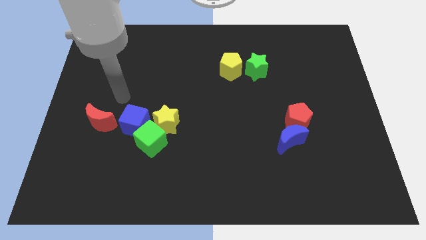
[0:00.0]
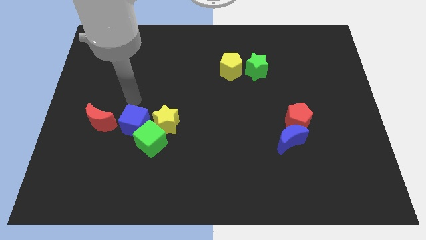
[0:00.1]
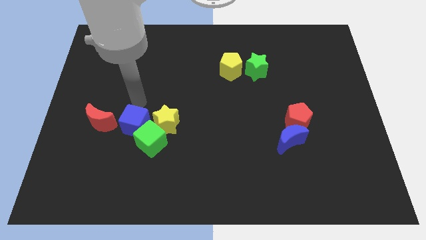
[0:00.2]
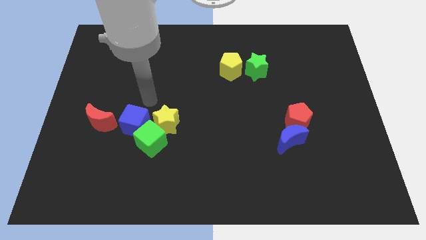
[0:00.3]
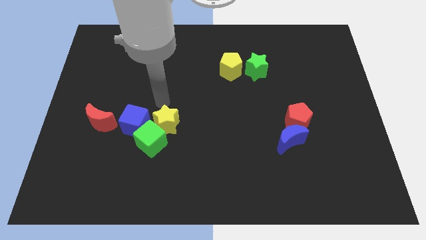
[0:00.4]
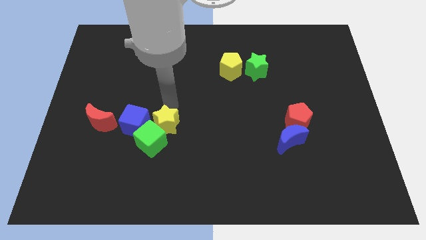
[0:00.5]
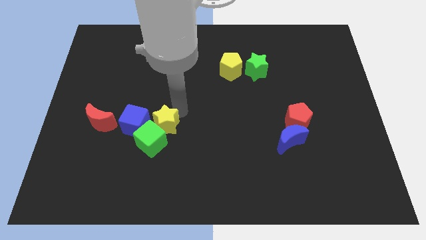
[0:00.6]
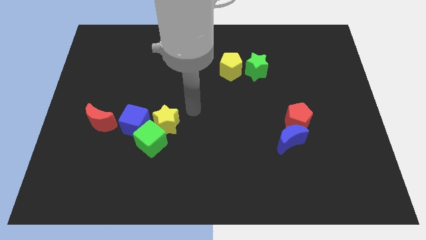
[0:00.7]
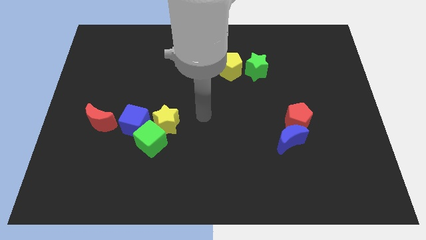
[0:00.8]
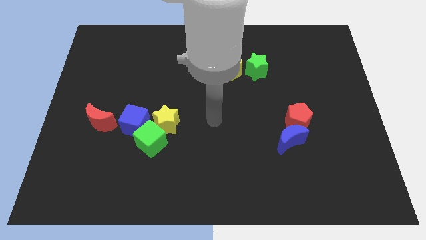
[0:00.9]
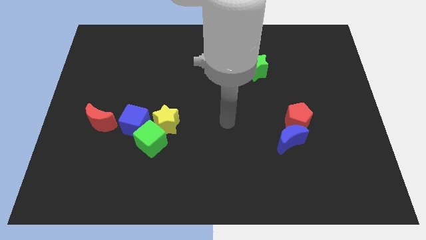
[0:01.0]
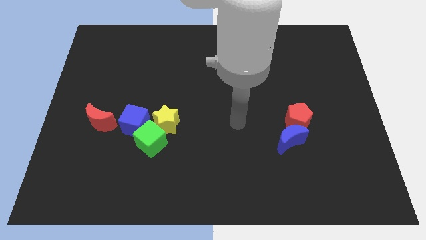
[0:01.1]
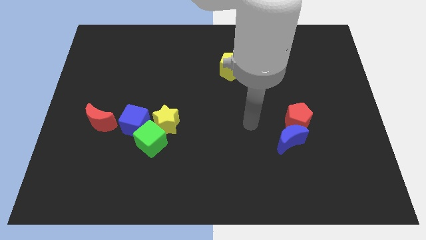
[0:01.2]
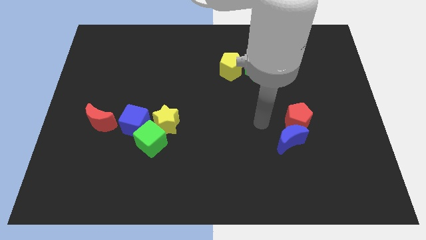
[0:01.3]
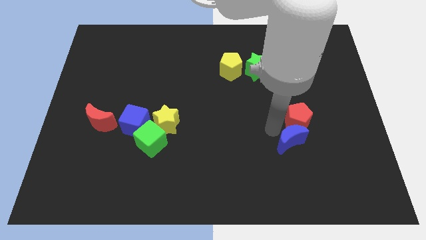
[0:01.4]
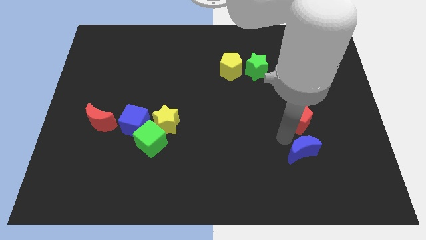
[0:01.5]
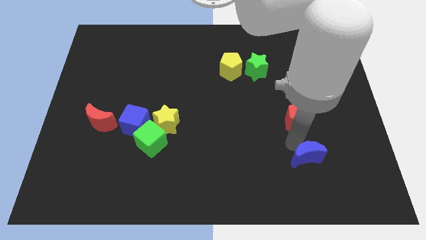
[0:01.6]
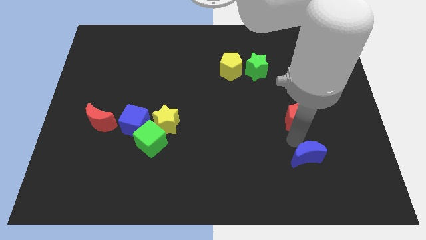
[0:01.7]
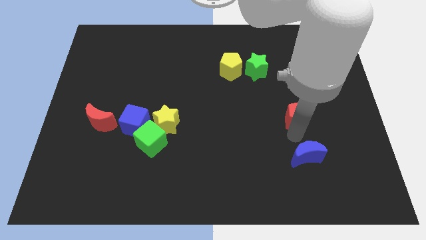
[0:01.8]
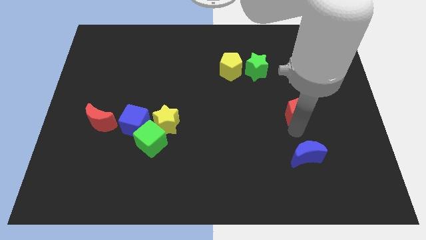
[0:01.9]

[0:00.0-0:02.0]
move the red pentagon away from the blue moon

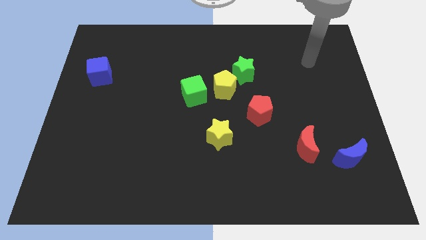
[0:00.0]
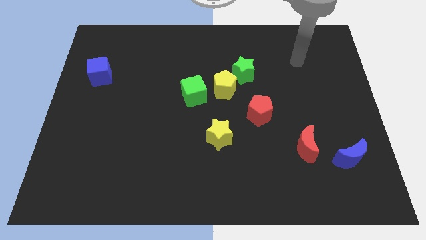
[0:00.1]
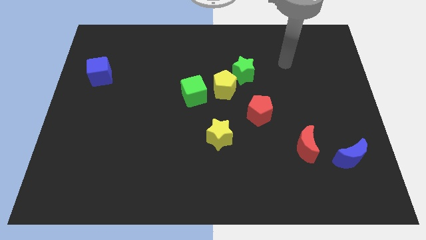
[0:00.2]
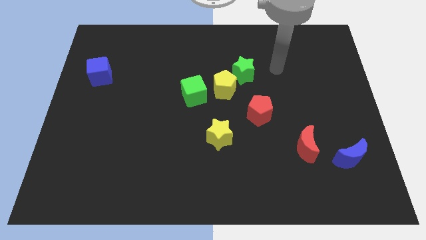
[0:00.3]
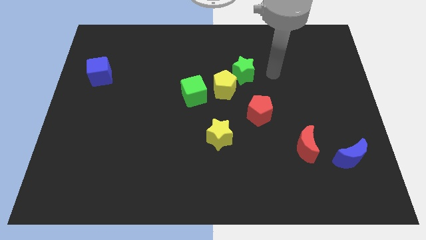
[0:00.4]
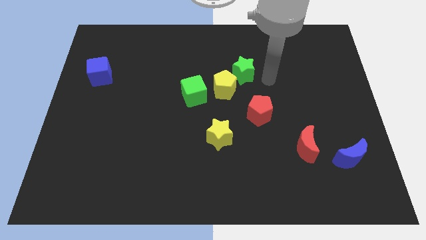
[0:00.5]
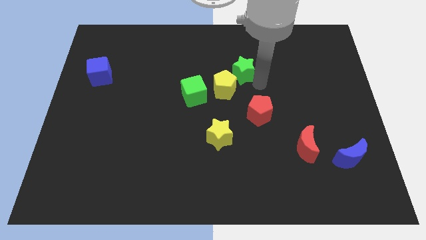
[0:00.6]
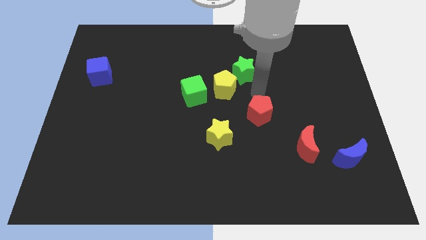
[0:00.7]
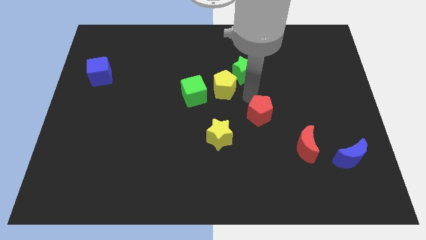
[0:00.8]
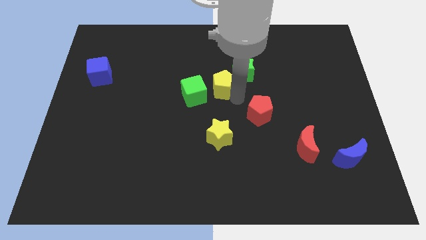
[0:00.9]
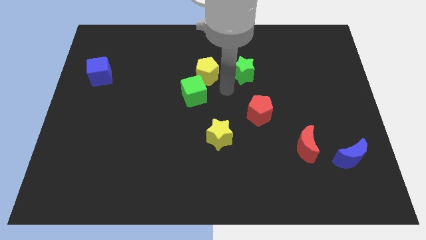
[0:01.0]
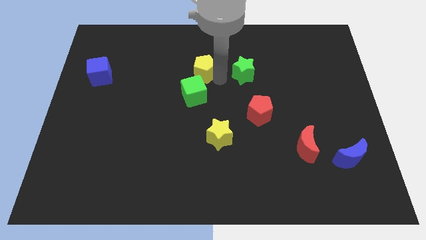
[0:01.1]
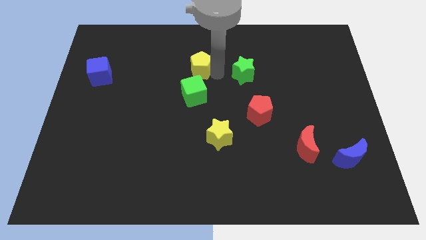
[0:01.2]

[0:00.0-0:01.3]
pull the green star apart from the yellow pentagon

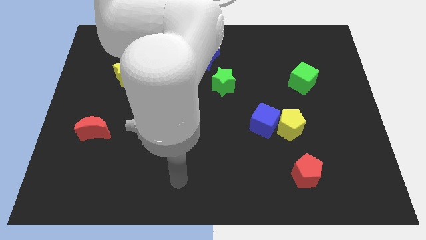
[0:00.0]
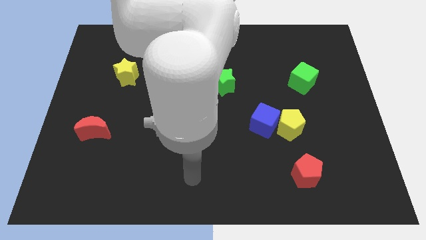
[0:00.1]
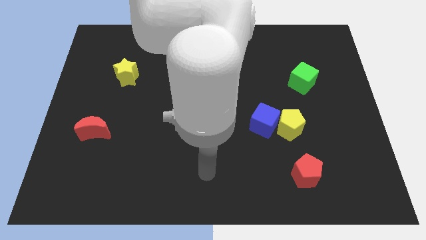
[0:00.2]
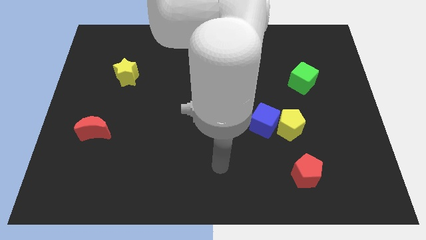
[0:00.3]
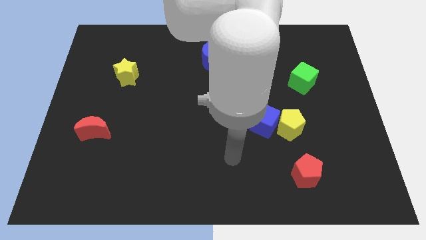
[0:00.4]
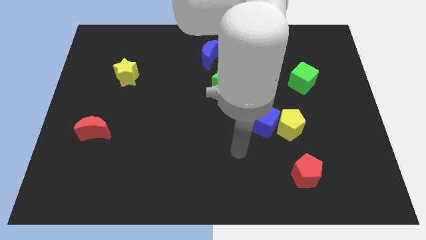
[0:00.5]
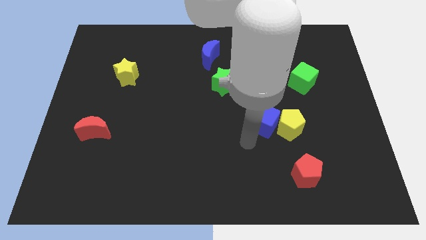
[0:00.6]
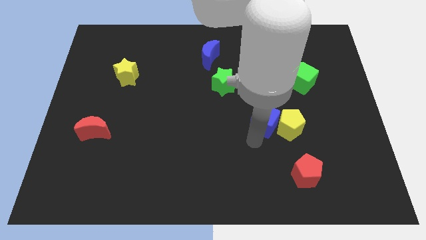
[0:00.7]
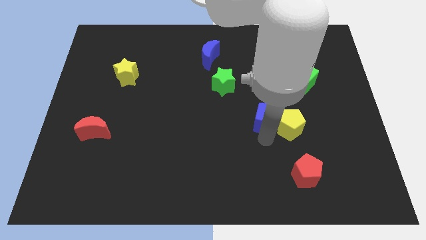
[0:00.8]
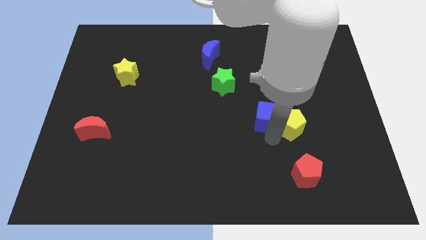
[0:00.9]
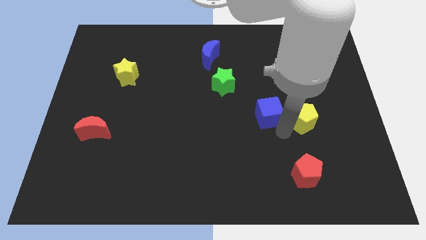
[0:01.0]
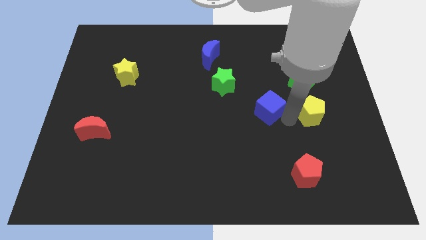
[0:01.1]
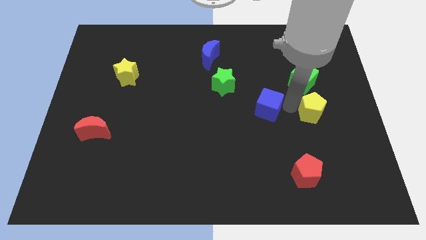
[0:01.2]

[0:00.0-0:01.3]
pull the blue cube apart from the yellow pentagon

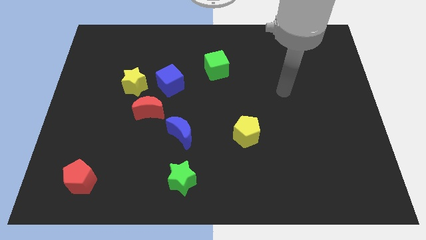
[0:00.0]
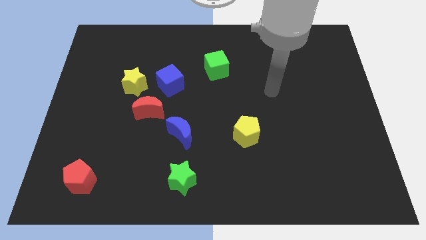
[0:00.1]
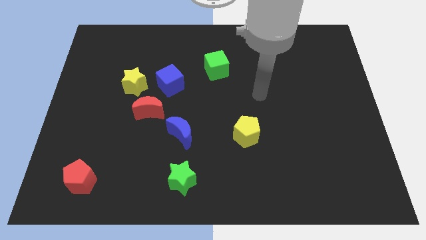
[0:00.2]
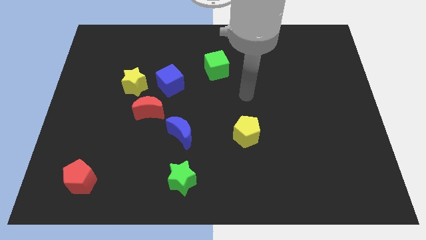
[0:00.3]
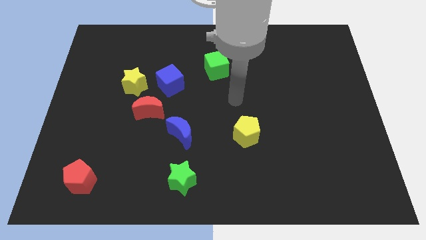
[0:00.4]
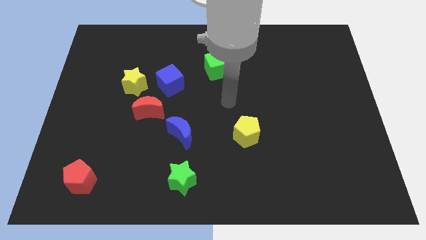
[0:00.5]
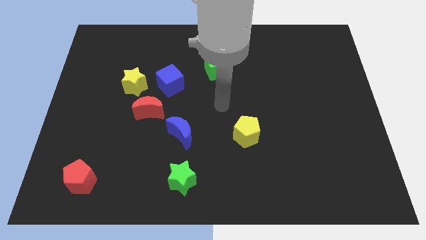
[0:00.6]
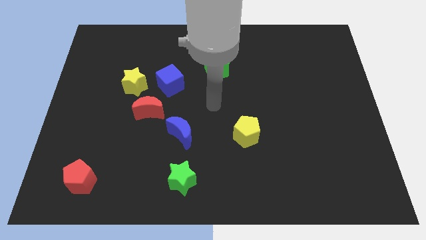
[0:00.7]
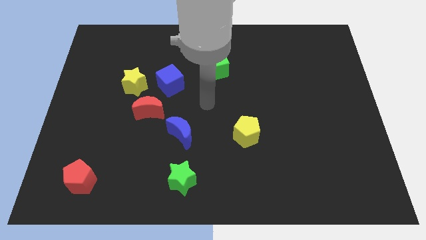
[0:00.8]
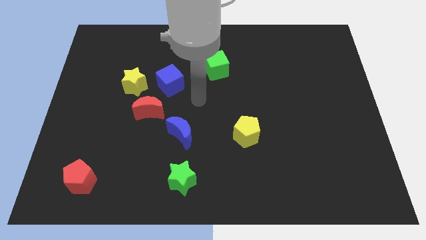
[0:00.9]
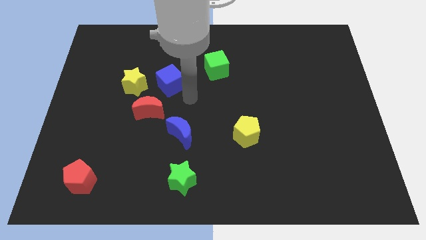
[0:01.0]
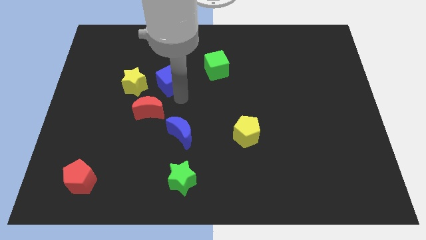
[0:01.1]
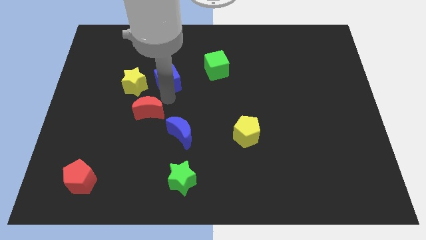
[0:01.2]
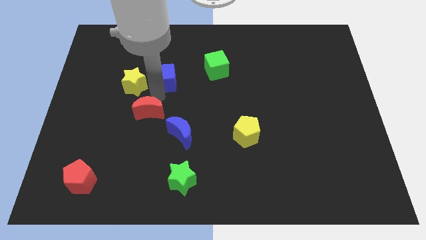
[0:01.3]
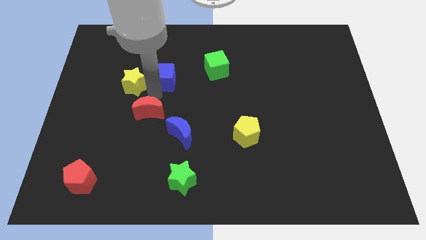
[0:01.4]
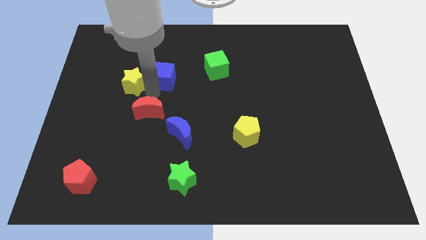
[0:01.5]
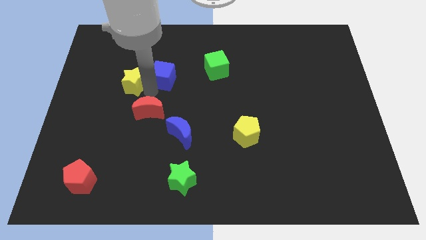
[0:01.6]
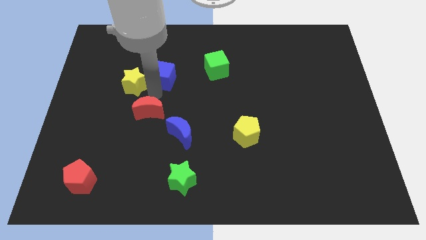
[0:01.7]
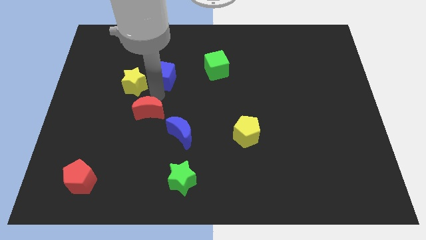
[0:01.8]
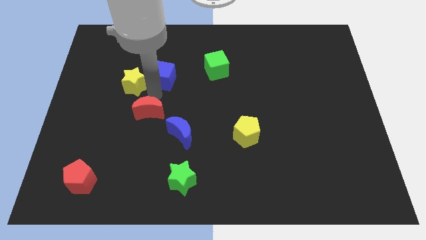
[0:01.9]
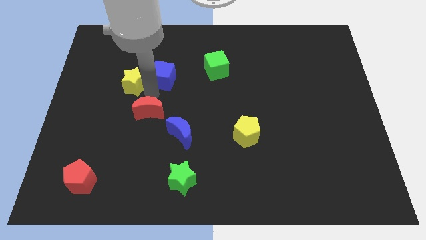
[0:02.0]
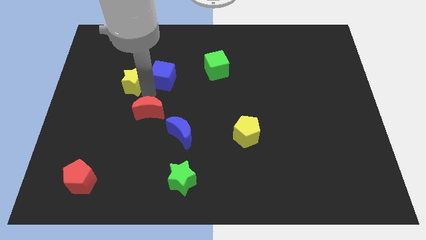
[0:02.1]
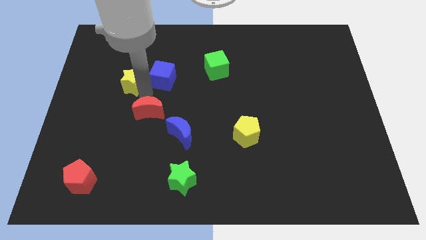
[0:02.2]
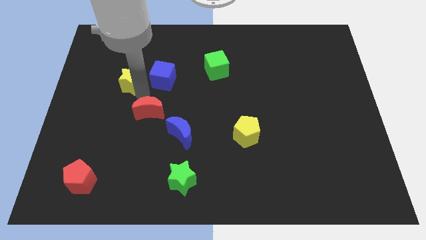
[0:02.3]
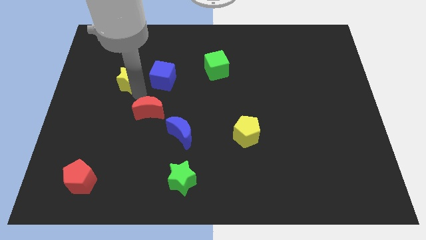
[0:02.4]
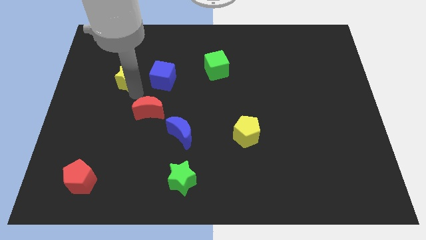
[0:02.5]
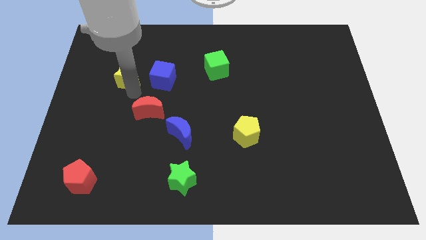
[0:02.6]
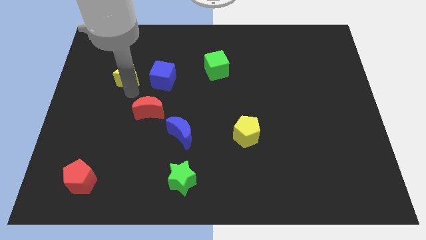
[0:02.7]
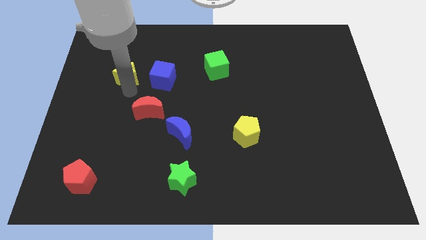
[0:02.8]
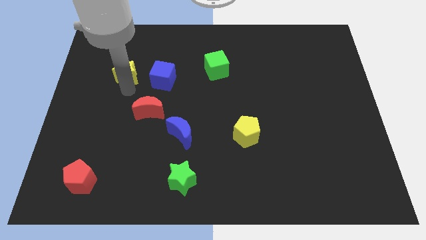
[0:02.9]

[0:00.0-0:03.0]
move the yellow star away from the blue cube and red moon

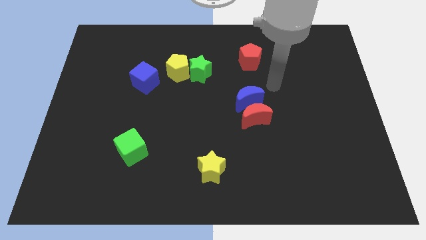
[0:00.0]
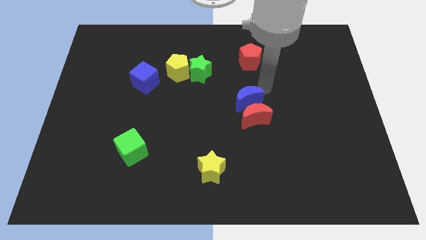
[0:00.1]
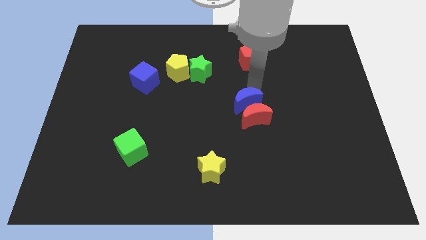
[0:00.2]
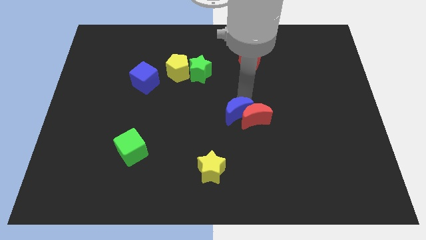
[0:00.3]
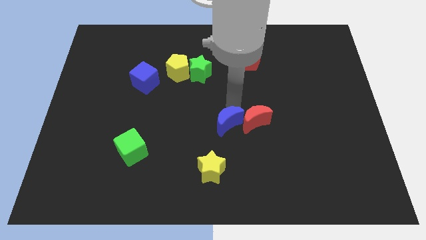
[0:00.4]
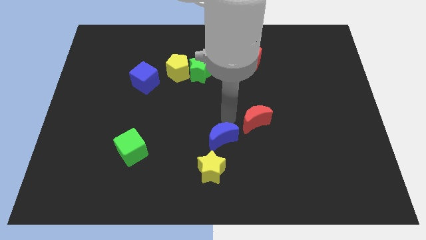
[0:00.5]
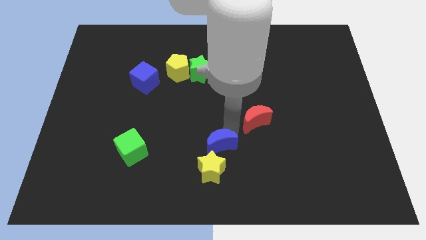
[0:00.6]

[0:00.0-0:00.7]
separate the red moon from the blue moon

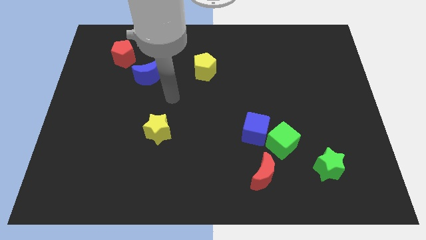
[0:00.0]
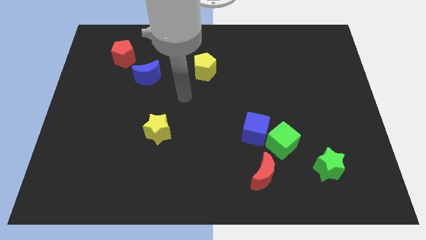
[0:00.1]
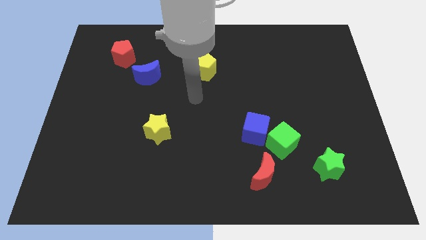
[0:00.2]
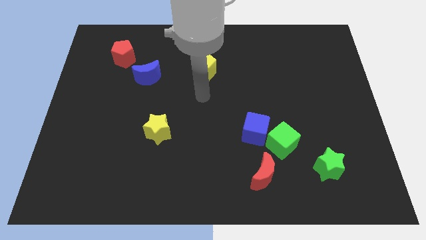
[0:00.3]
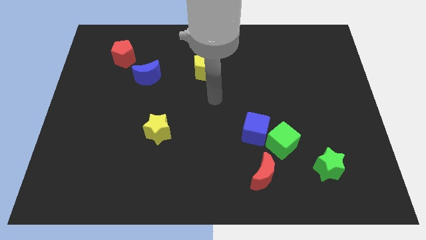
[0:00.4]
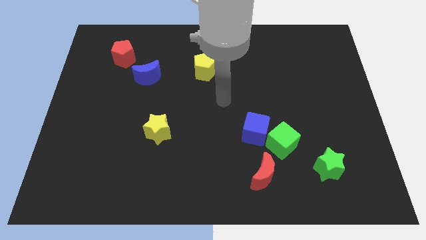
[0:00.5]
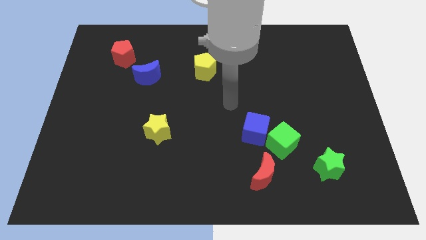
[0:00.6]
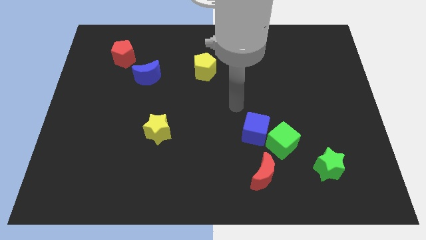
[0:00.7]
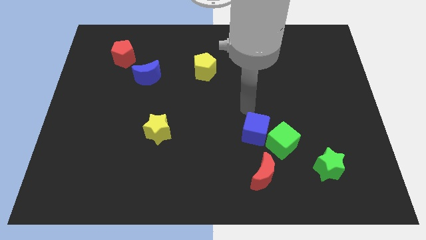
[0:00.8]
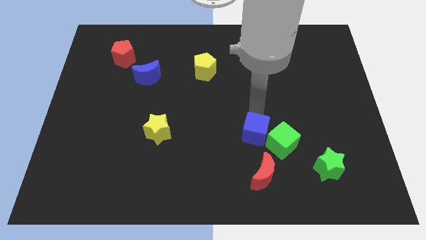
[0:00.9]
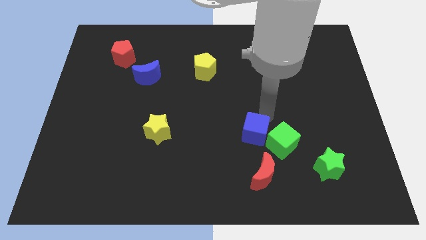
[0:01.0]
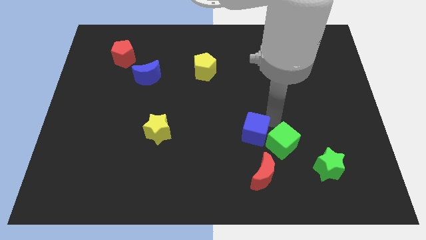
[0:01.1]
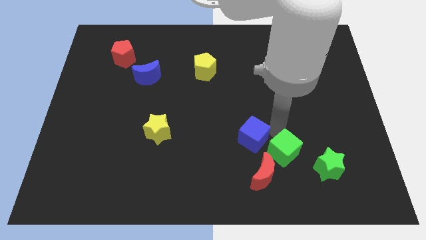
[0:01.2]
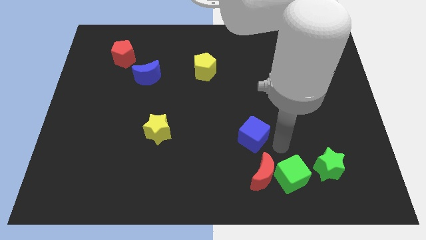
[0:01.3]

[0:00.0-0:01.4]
pull the blue cube apart from the green cube
